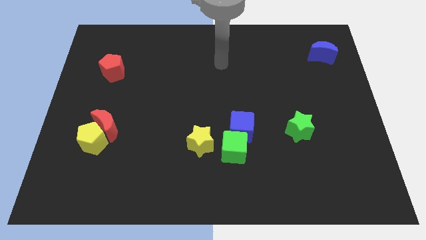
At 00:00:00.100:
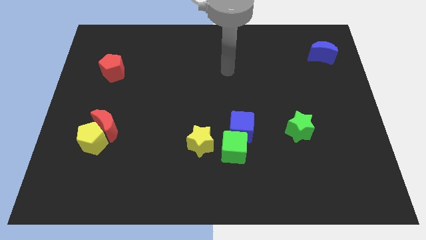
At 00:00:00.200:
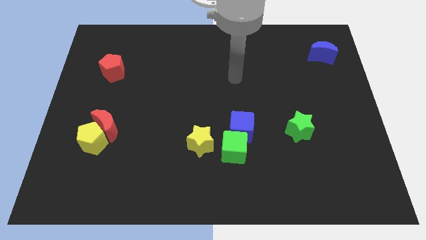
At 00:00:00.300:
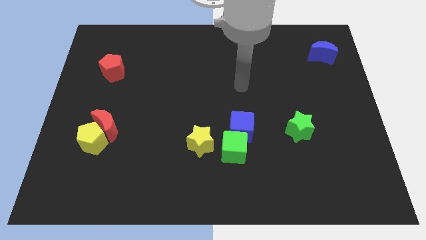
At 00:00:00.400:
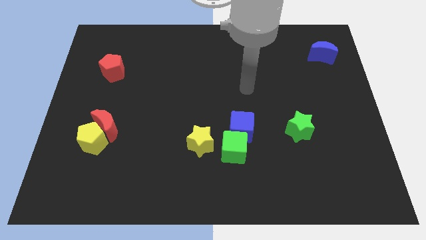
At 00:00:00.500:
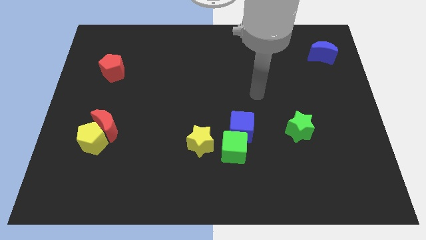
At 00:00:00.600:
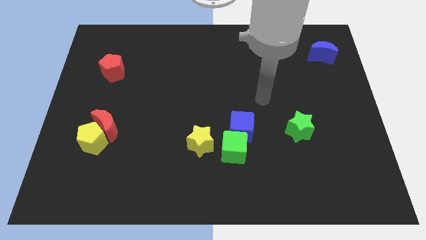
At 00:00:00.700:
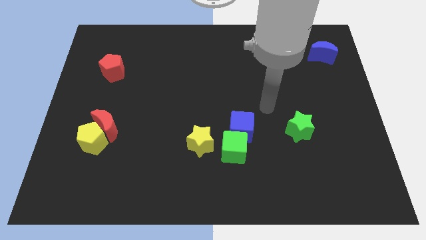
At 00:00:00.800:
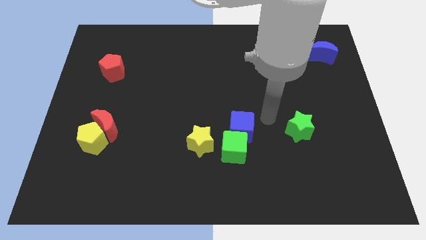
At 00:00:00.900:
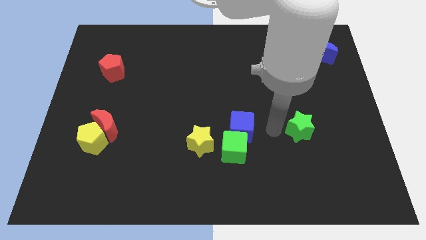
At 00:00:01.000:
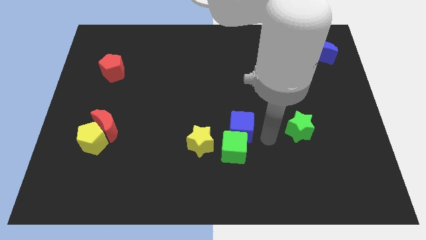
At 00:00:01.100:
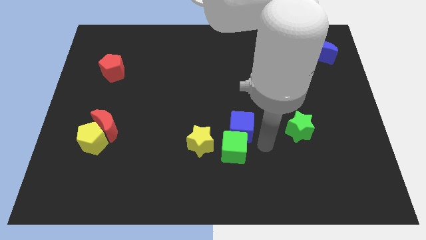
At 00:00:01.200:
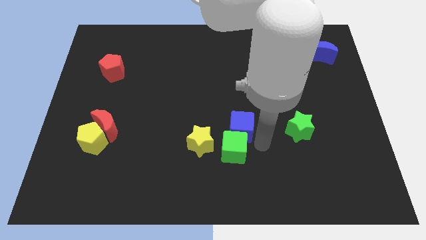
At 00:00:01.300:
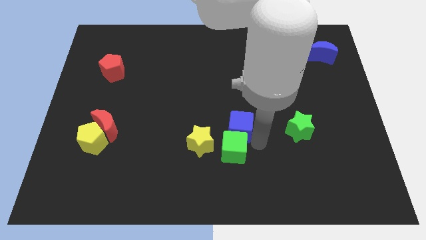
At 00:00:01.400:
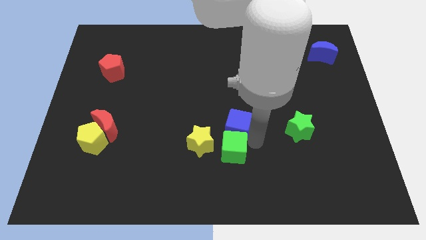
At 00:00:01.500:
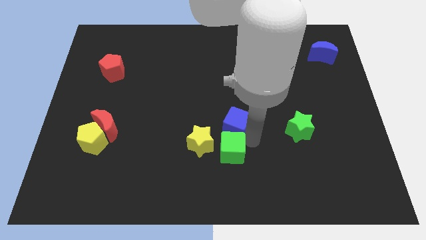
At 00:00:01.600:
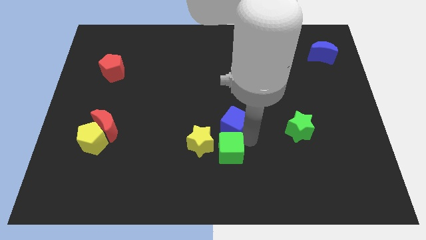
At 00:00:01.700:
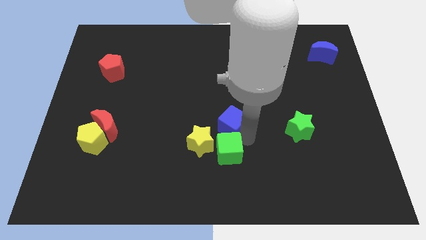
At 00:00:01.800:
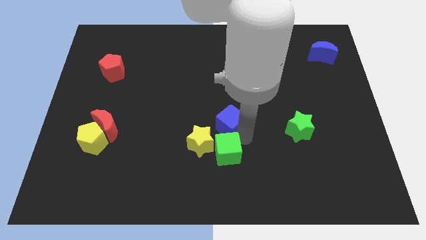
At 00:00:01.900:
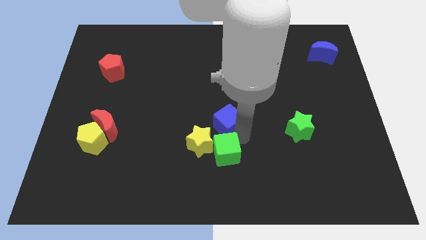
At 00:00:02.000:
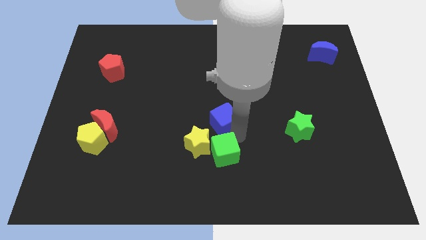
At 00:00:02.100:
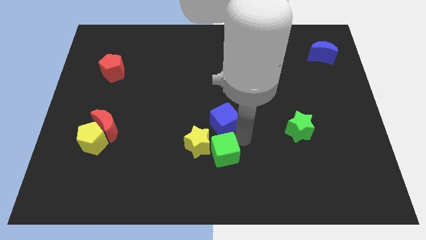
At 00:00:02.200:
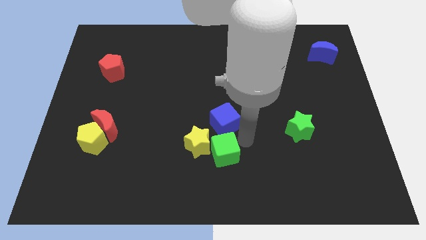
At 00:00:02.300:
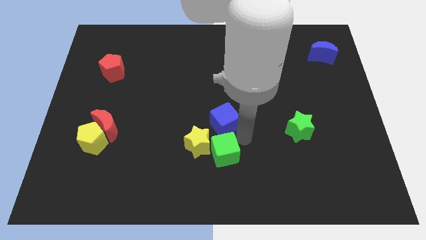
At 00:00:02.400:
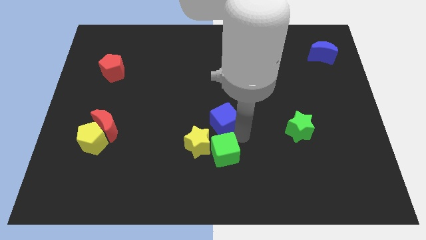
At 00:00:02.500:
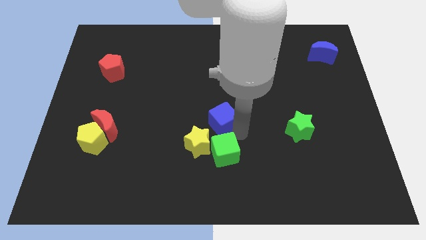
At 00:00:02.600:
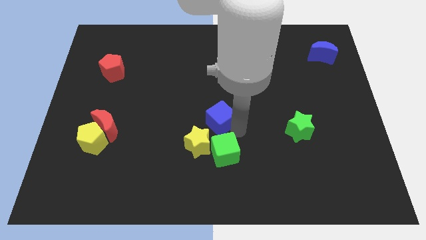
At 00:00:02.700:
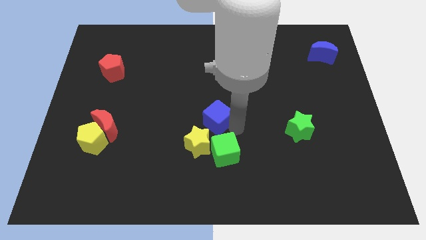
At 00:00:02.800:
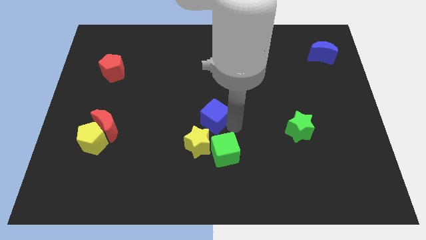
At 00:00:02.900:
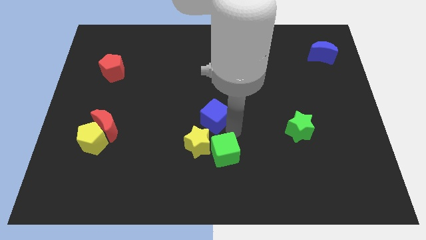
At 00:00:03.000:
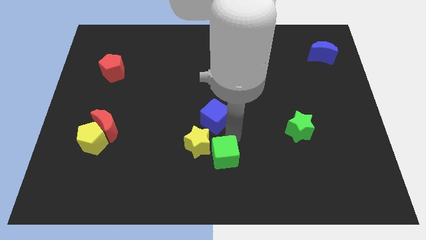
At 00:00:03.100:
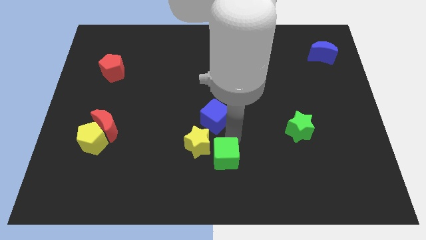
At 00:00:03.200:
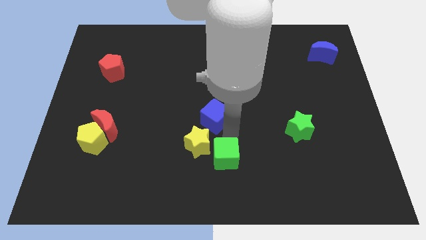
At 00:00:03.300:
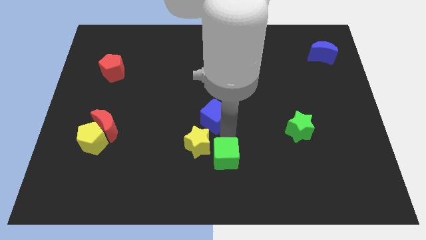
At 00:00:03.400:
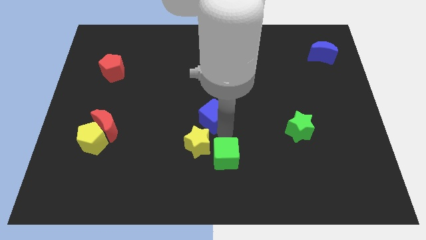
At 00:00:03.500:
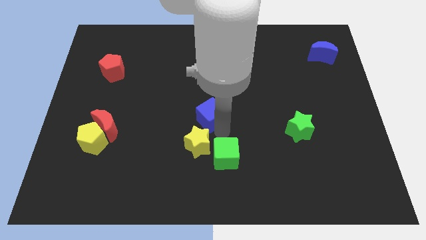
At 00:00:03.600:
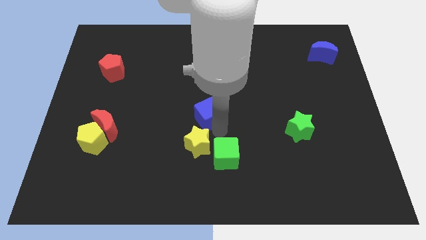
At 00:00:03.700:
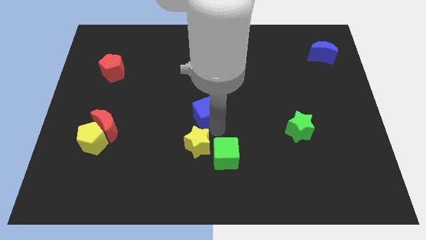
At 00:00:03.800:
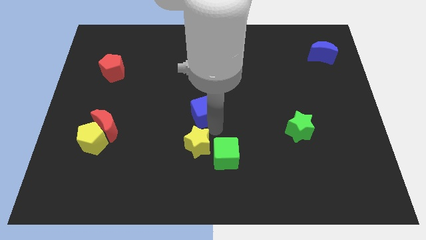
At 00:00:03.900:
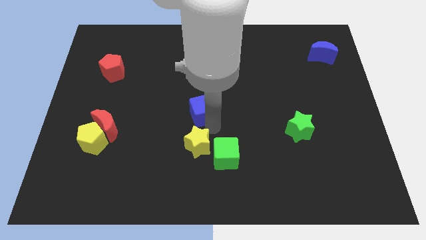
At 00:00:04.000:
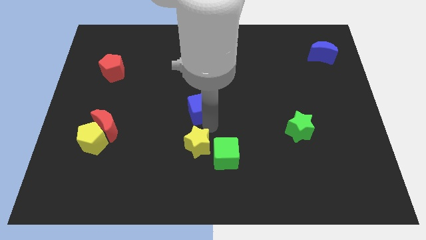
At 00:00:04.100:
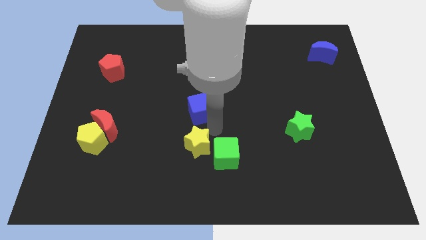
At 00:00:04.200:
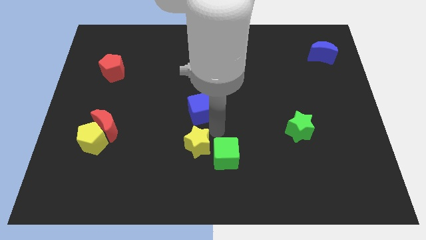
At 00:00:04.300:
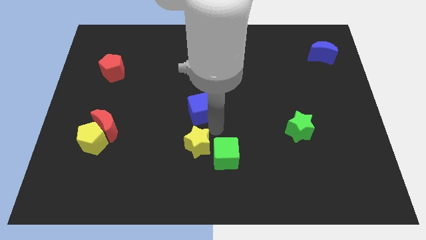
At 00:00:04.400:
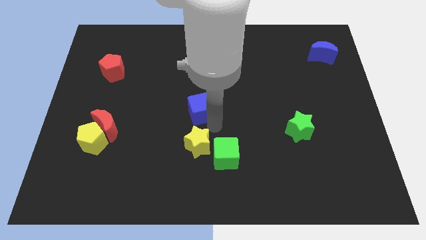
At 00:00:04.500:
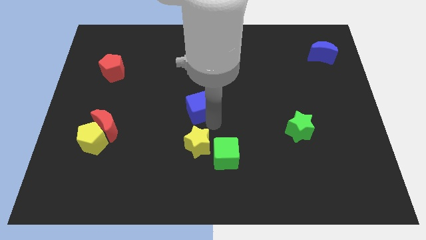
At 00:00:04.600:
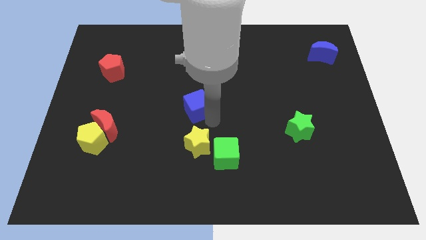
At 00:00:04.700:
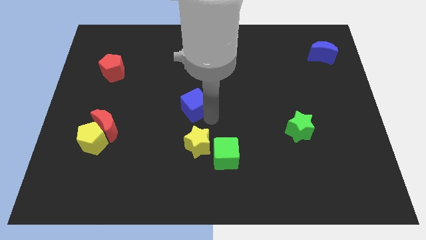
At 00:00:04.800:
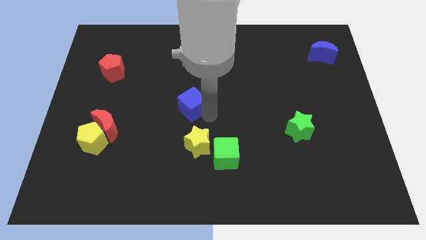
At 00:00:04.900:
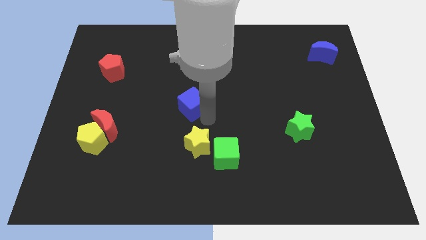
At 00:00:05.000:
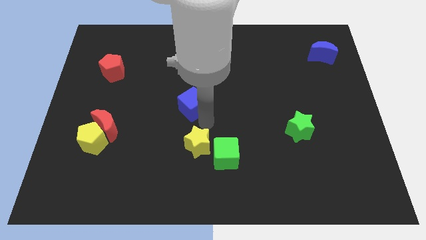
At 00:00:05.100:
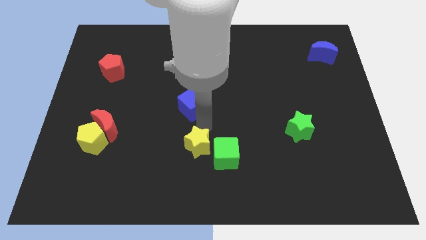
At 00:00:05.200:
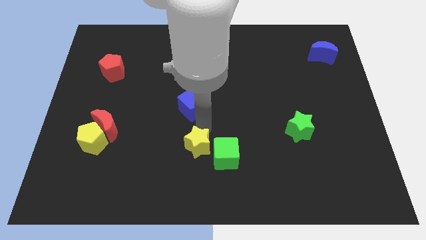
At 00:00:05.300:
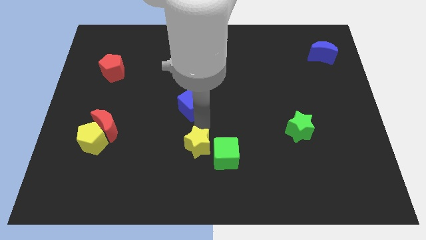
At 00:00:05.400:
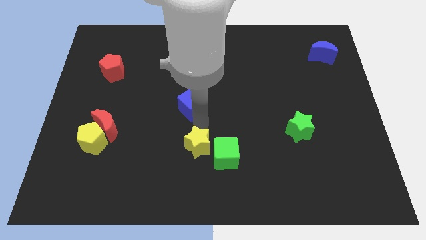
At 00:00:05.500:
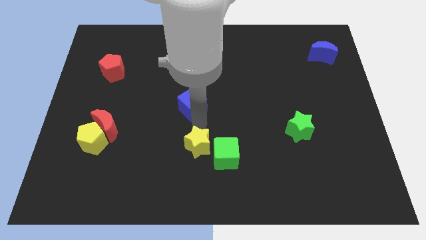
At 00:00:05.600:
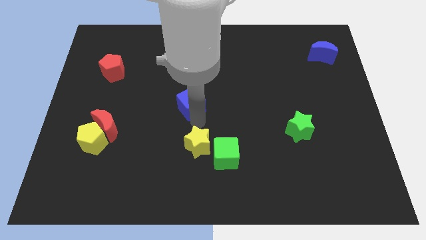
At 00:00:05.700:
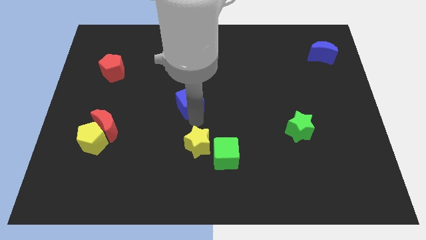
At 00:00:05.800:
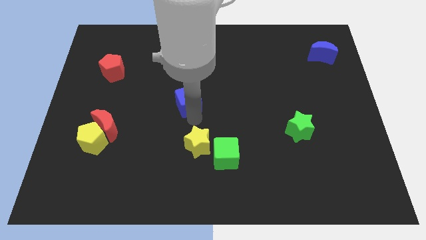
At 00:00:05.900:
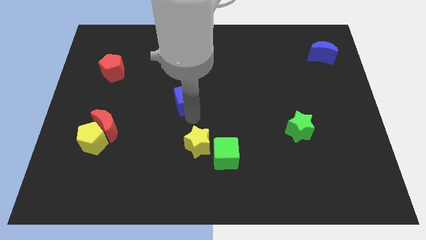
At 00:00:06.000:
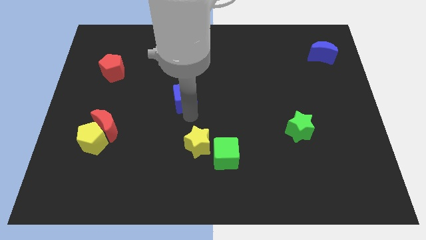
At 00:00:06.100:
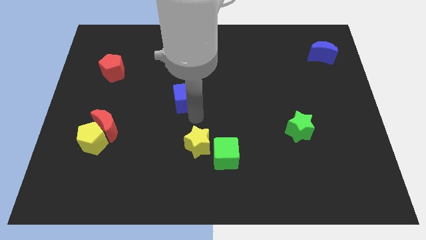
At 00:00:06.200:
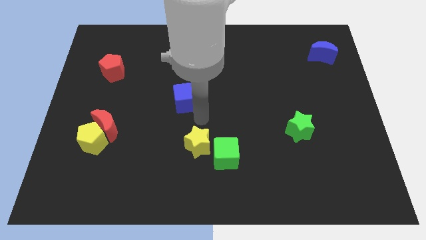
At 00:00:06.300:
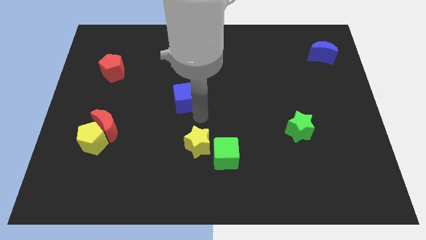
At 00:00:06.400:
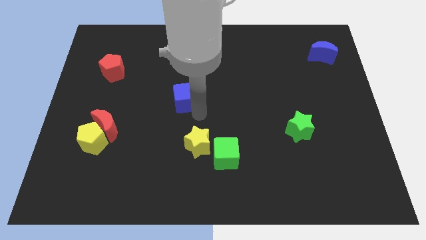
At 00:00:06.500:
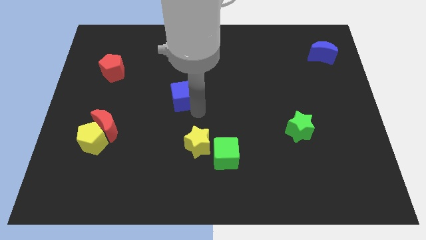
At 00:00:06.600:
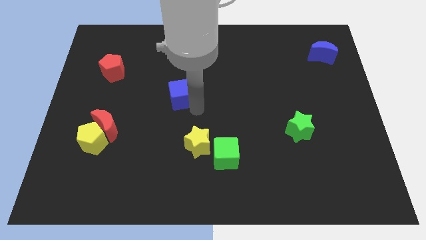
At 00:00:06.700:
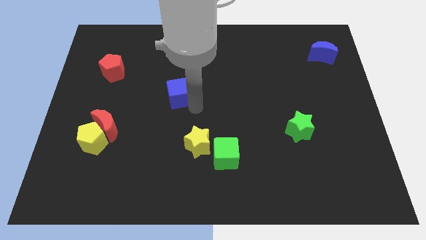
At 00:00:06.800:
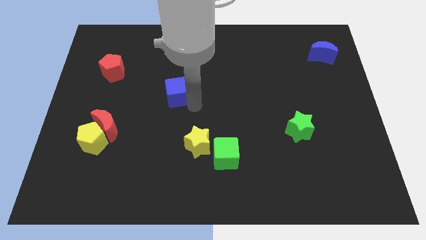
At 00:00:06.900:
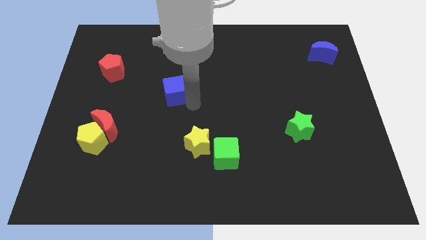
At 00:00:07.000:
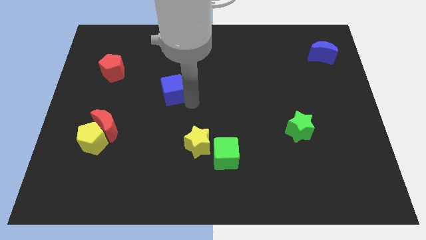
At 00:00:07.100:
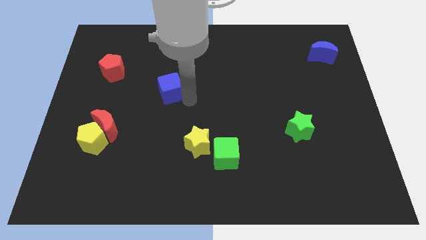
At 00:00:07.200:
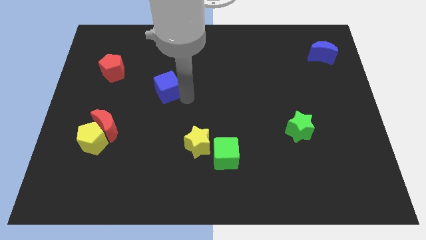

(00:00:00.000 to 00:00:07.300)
move the blue cube upwards and left

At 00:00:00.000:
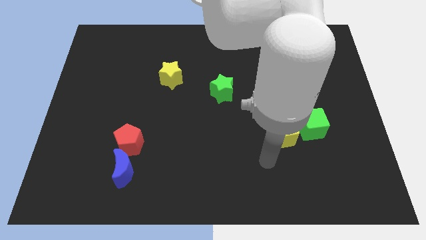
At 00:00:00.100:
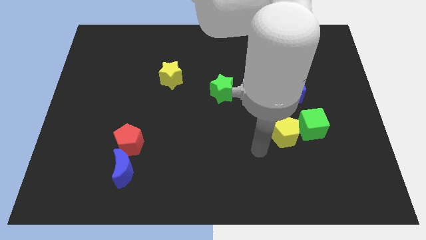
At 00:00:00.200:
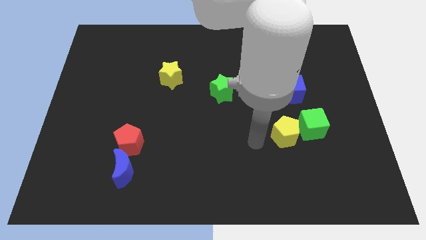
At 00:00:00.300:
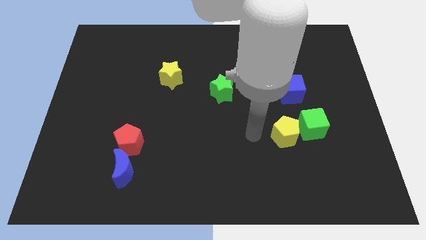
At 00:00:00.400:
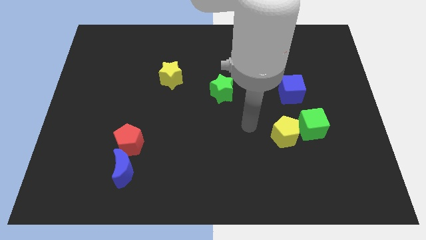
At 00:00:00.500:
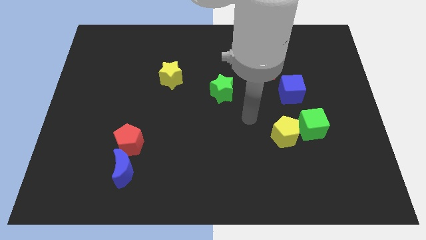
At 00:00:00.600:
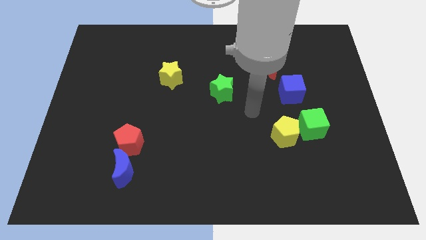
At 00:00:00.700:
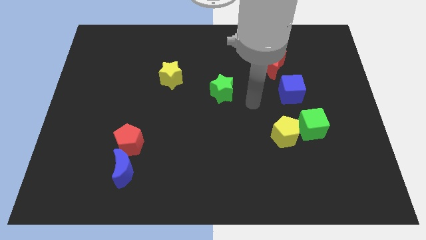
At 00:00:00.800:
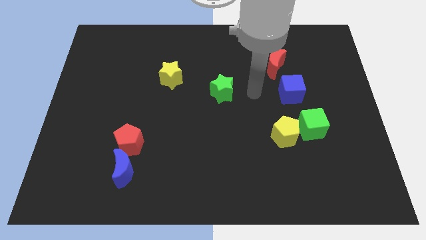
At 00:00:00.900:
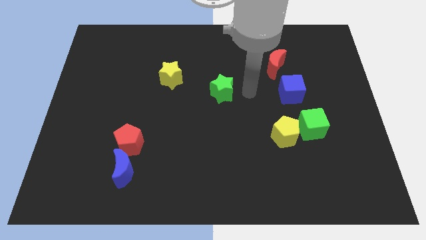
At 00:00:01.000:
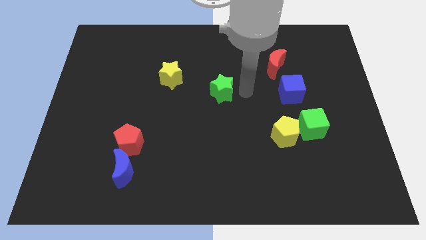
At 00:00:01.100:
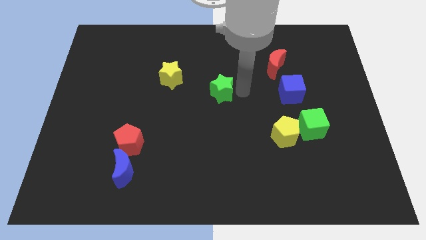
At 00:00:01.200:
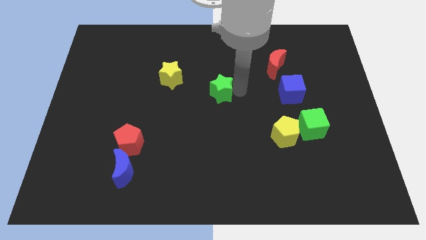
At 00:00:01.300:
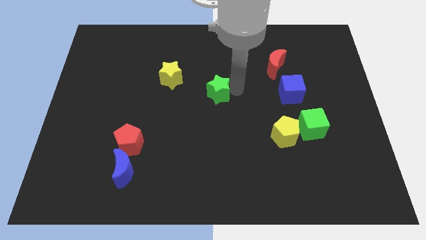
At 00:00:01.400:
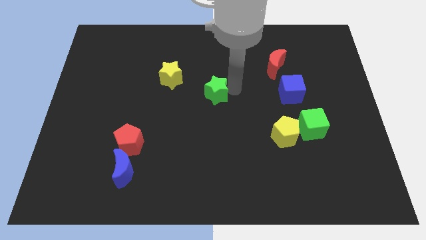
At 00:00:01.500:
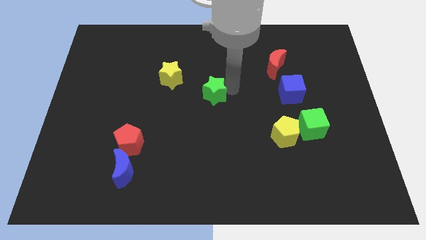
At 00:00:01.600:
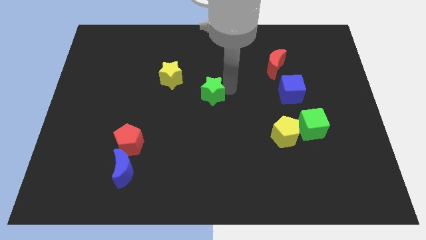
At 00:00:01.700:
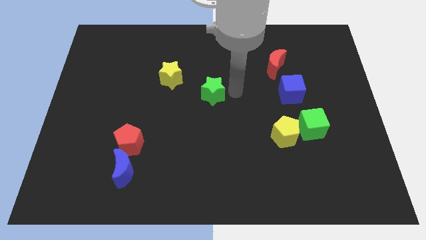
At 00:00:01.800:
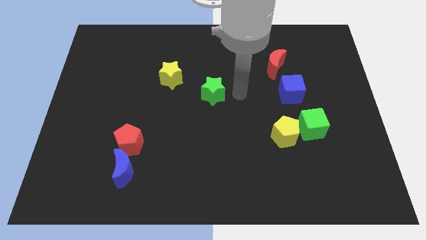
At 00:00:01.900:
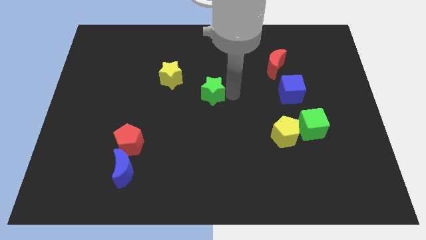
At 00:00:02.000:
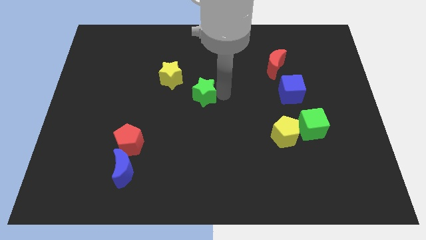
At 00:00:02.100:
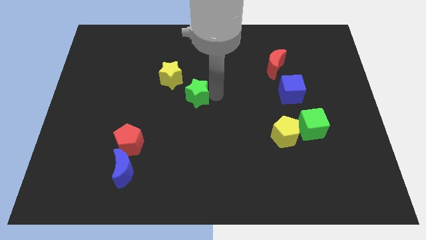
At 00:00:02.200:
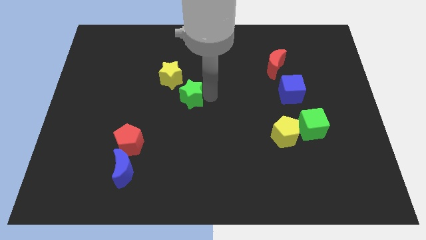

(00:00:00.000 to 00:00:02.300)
move the green star left a bit
